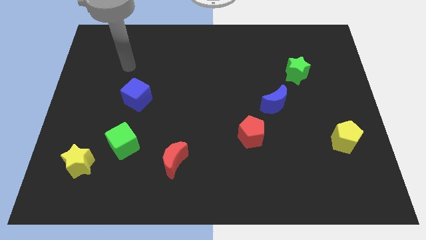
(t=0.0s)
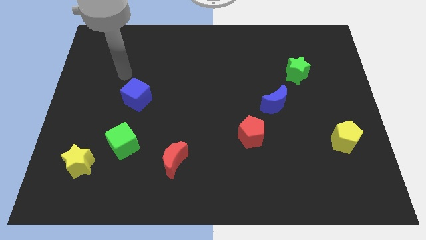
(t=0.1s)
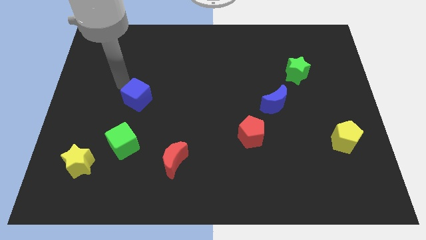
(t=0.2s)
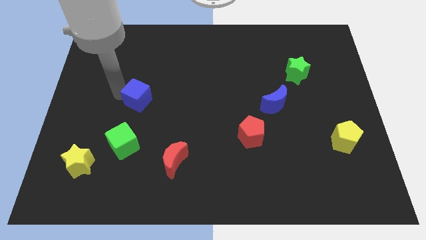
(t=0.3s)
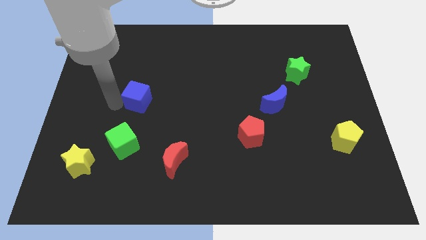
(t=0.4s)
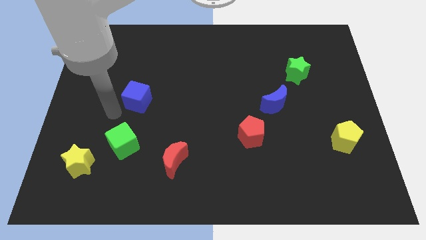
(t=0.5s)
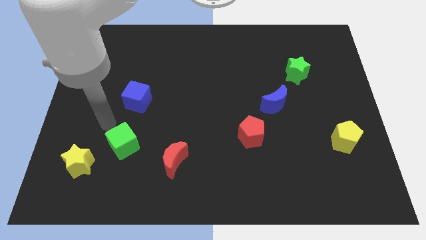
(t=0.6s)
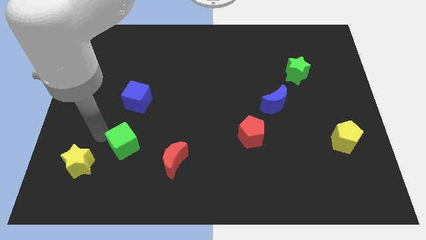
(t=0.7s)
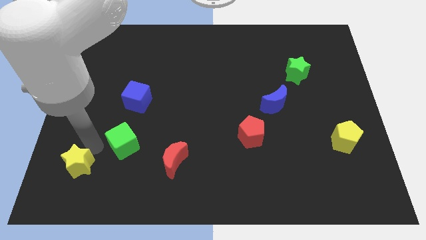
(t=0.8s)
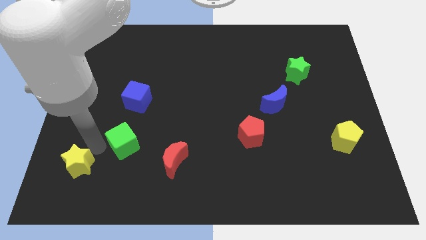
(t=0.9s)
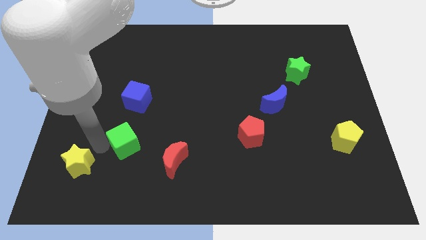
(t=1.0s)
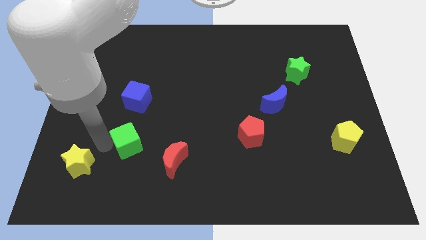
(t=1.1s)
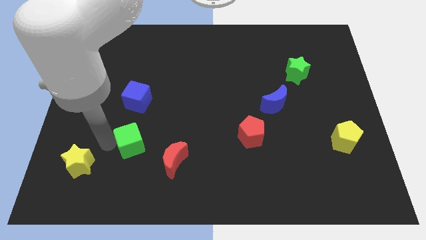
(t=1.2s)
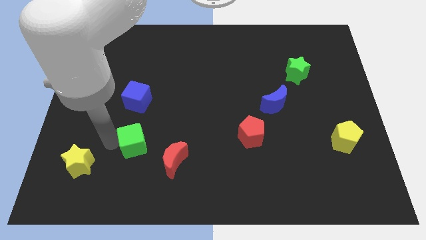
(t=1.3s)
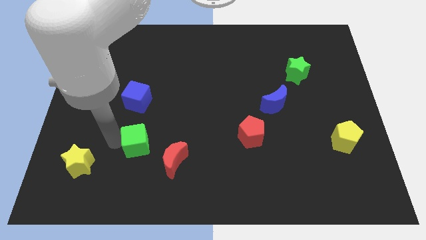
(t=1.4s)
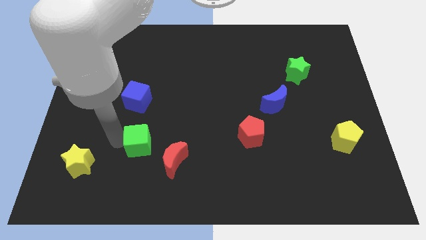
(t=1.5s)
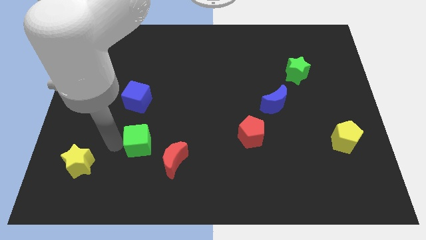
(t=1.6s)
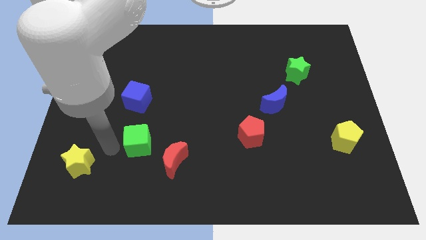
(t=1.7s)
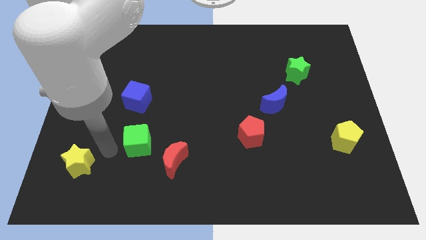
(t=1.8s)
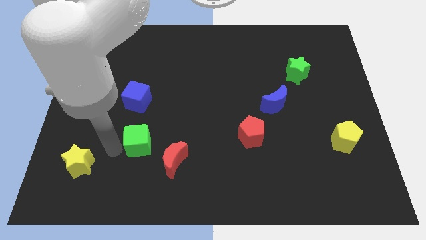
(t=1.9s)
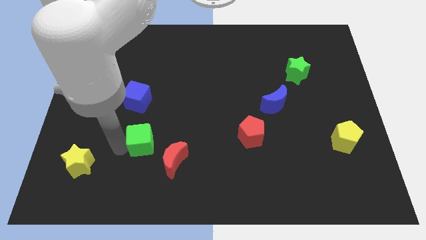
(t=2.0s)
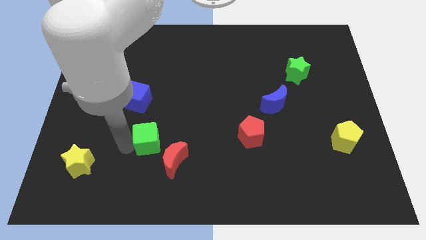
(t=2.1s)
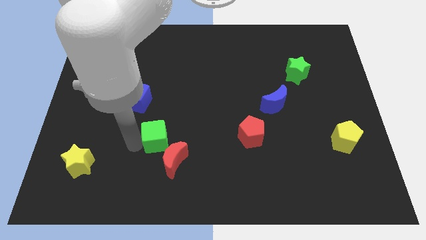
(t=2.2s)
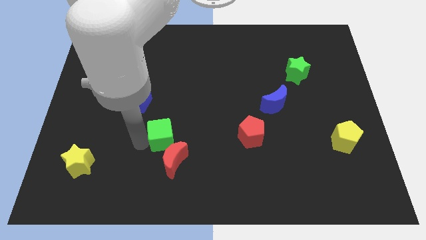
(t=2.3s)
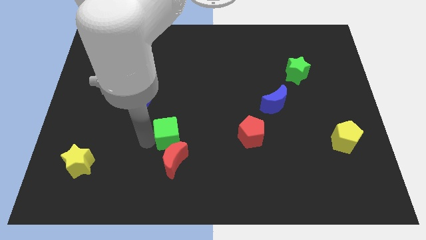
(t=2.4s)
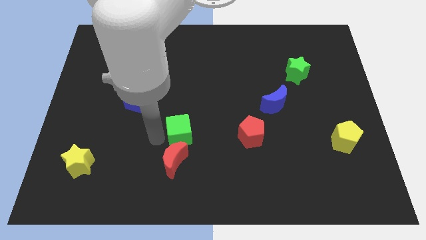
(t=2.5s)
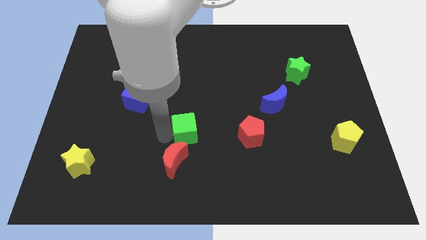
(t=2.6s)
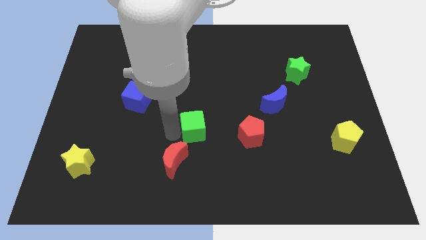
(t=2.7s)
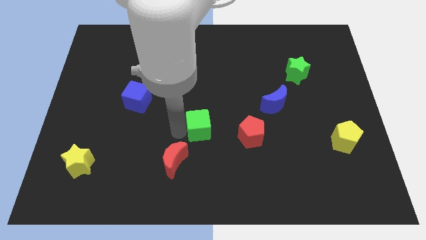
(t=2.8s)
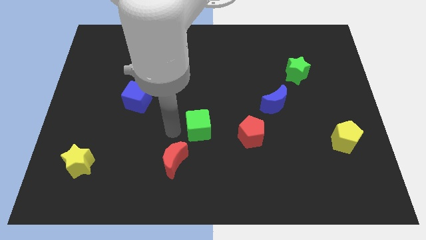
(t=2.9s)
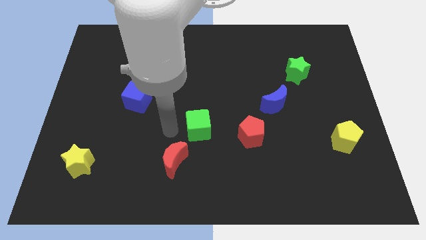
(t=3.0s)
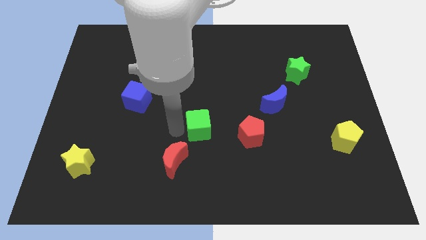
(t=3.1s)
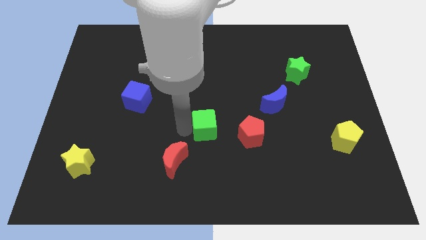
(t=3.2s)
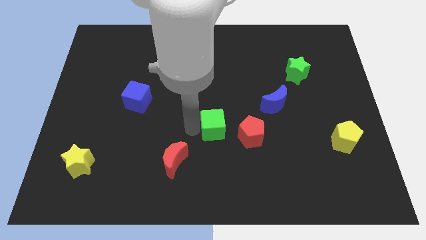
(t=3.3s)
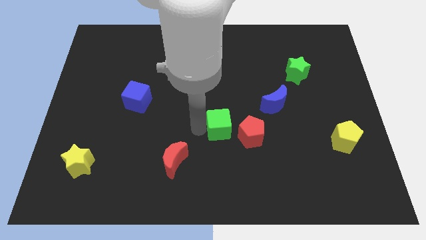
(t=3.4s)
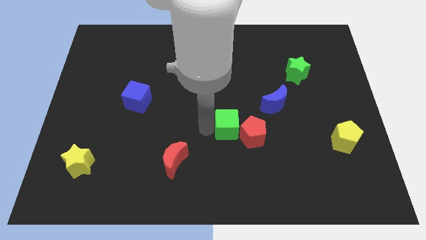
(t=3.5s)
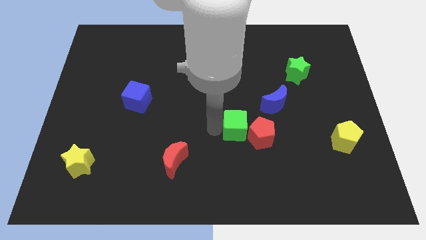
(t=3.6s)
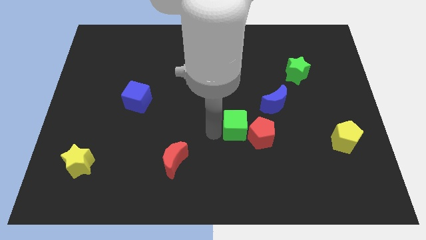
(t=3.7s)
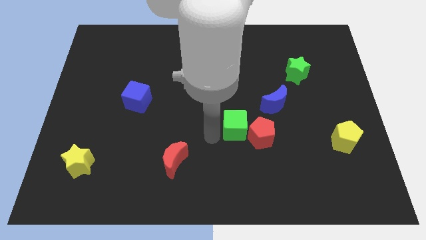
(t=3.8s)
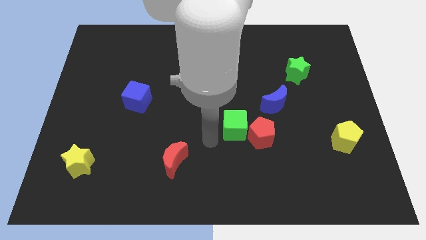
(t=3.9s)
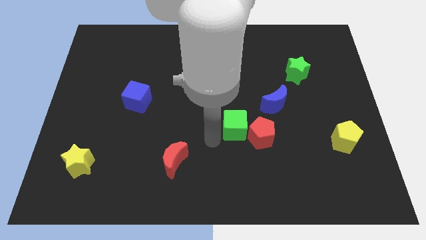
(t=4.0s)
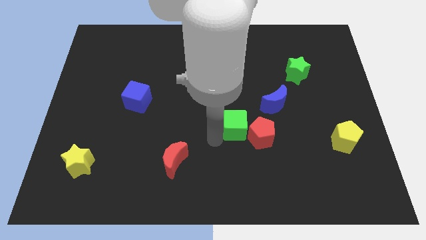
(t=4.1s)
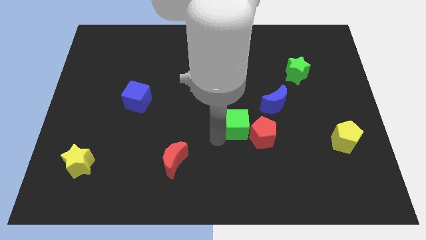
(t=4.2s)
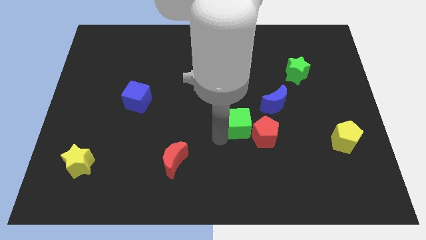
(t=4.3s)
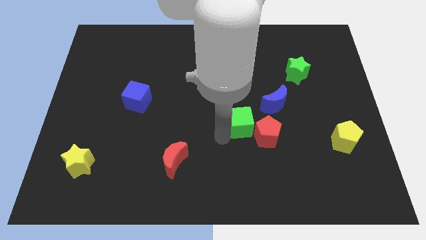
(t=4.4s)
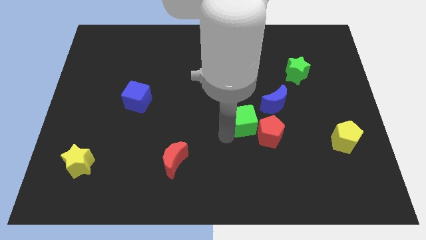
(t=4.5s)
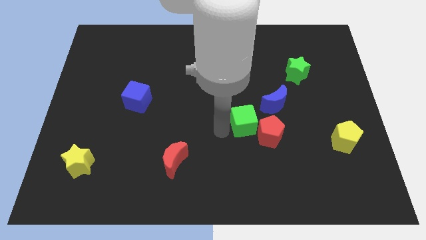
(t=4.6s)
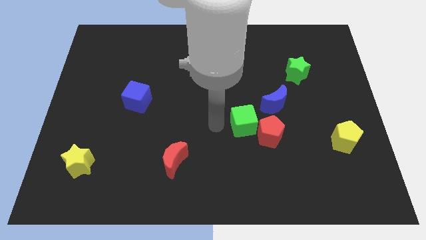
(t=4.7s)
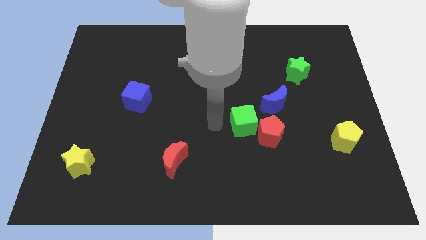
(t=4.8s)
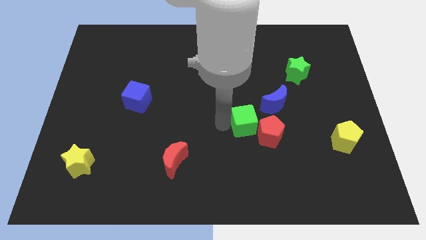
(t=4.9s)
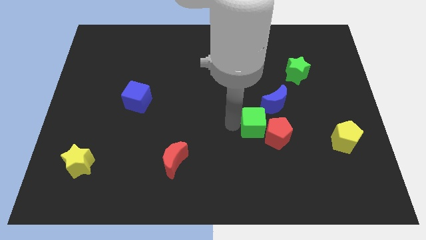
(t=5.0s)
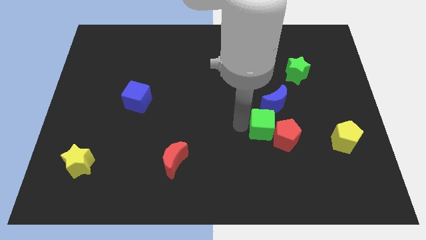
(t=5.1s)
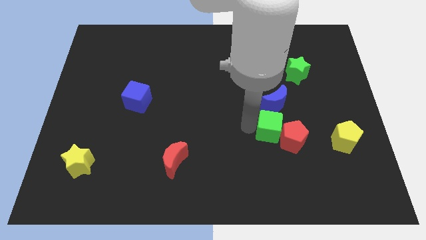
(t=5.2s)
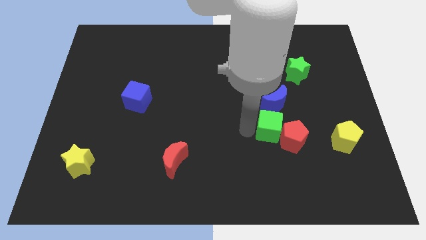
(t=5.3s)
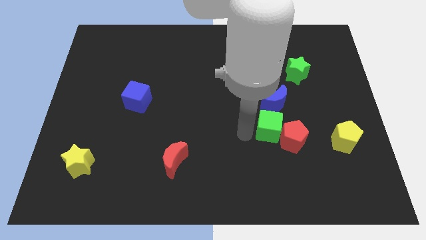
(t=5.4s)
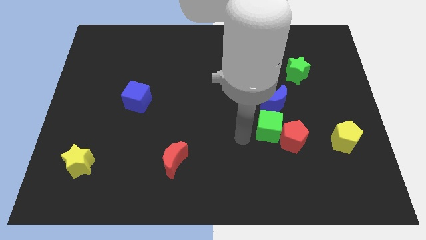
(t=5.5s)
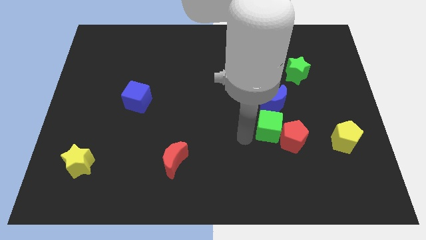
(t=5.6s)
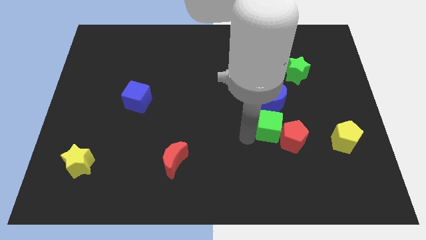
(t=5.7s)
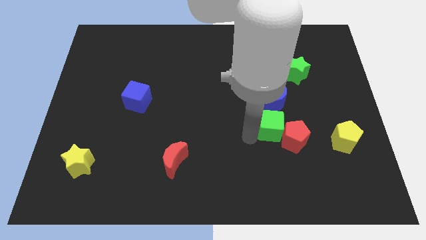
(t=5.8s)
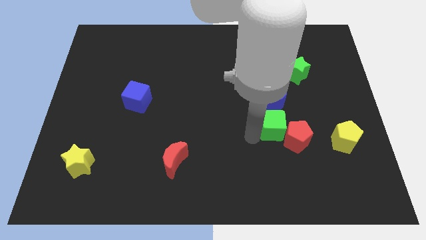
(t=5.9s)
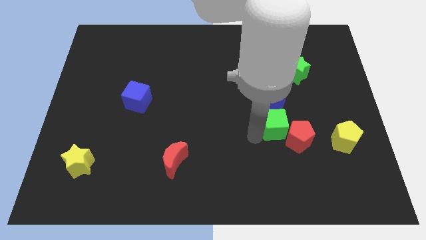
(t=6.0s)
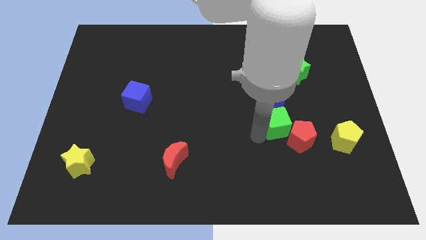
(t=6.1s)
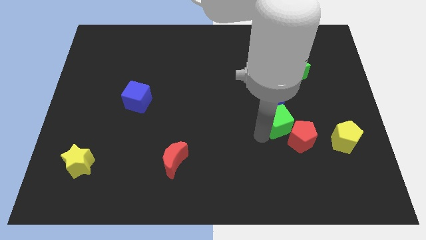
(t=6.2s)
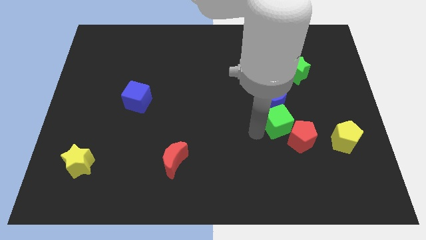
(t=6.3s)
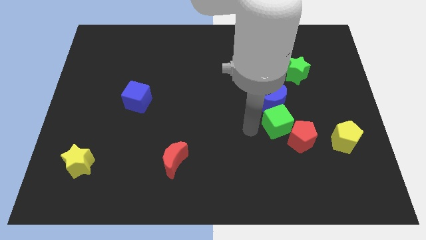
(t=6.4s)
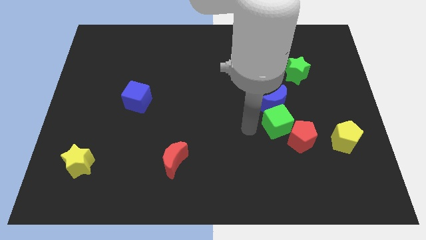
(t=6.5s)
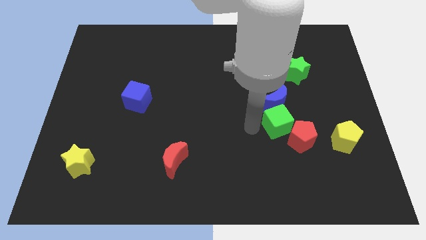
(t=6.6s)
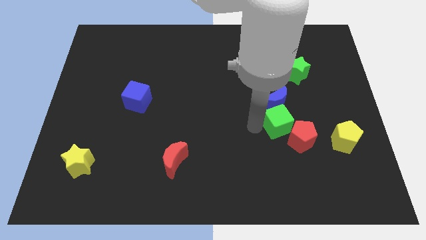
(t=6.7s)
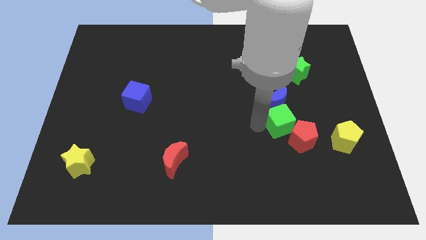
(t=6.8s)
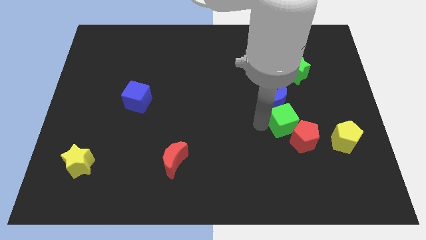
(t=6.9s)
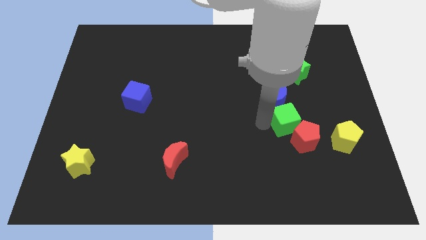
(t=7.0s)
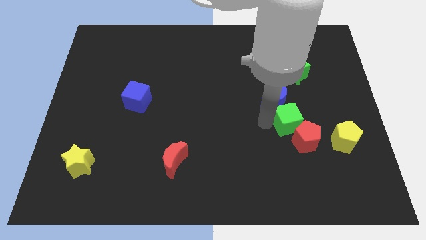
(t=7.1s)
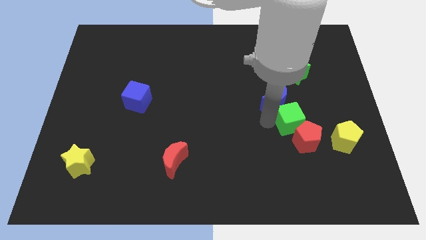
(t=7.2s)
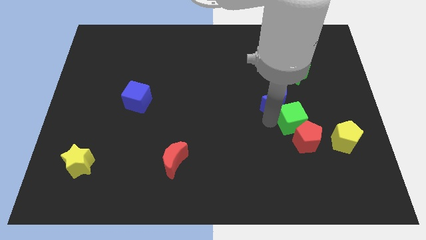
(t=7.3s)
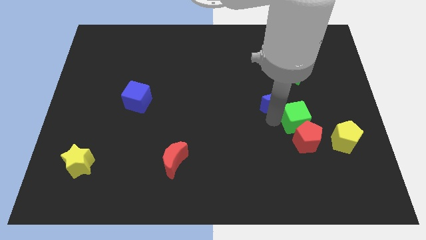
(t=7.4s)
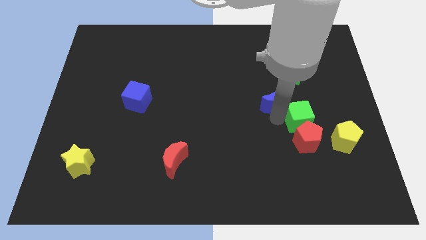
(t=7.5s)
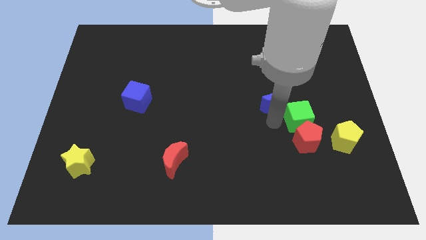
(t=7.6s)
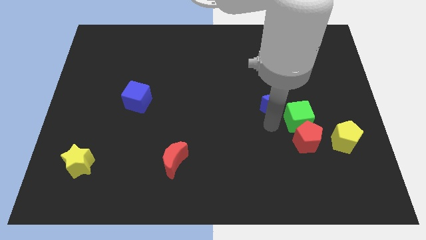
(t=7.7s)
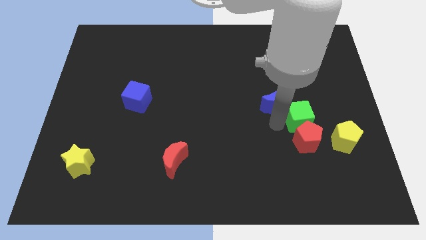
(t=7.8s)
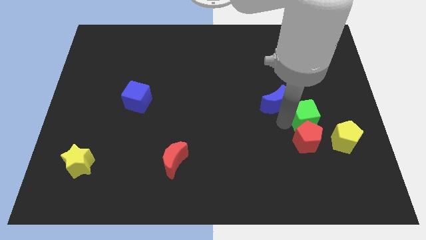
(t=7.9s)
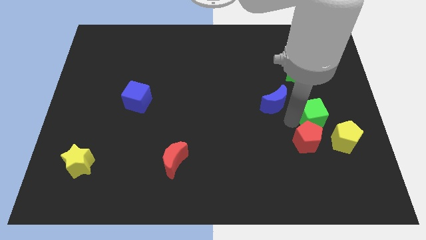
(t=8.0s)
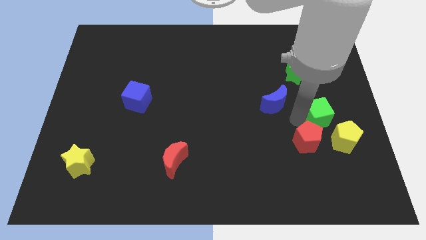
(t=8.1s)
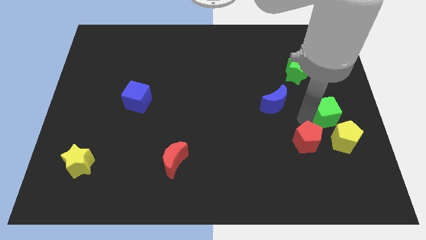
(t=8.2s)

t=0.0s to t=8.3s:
move the green cube to the center right
